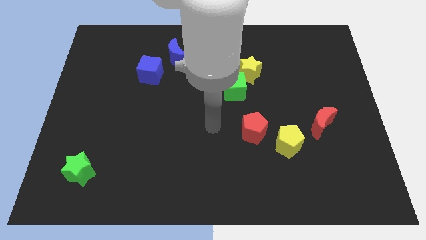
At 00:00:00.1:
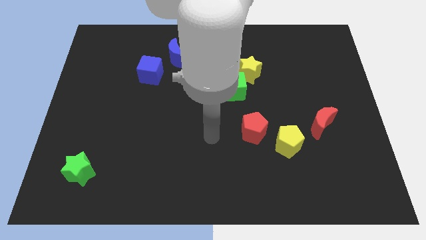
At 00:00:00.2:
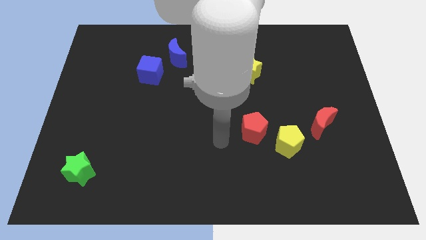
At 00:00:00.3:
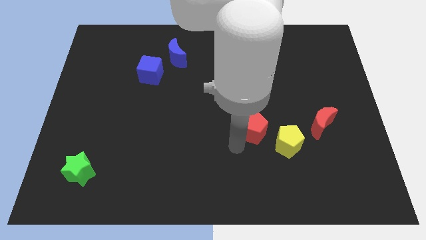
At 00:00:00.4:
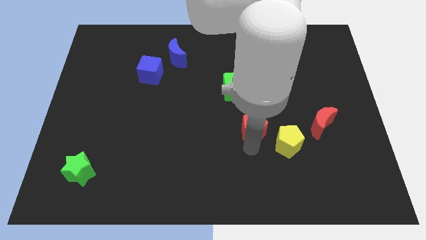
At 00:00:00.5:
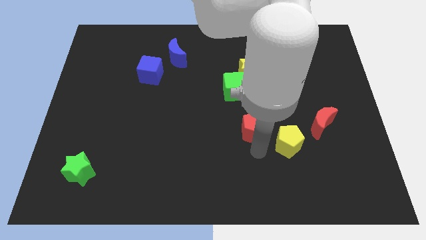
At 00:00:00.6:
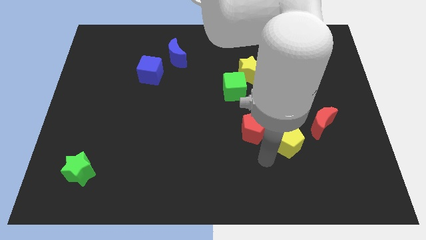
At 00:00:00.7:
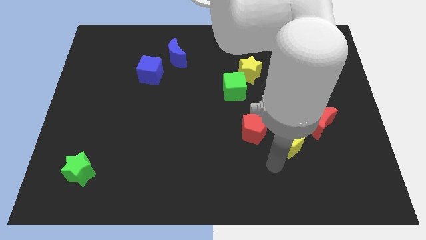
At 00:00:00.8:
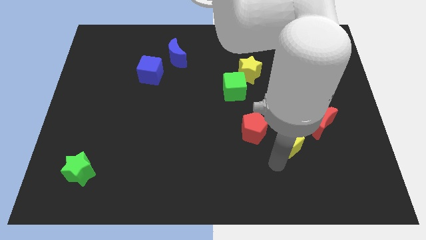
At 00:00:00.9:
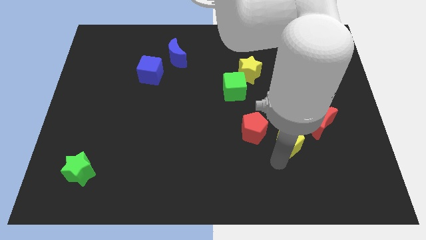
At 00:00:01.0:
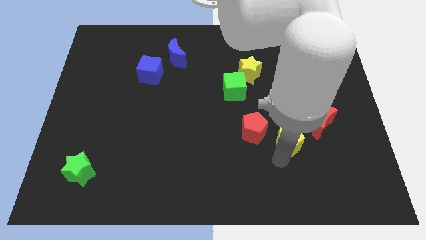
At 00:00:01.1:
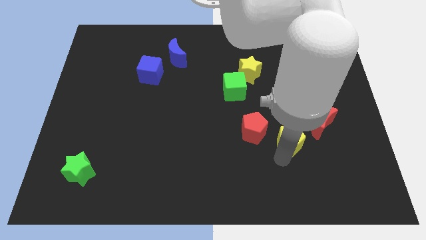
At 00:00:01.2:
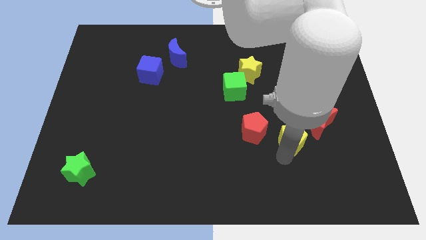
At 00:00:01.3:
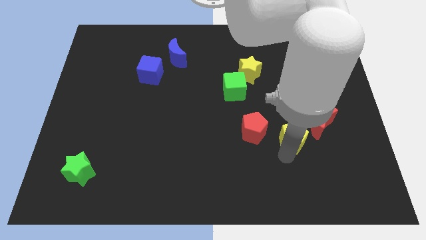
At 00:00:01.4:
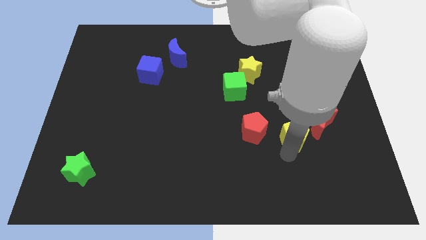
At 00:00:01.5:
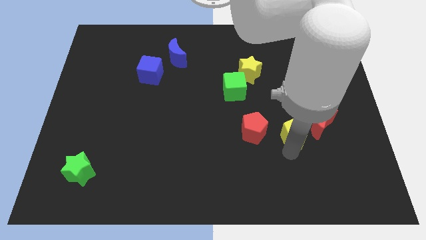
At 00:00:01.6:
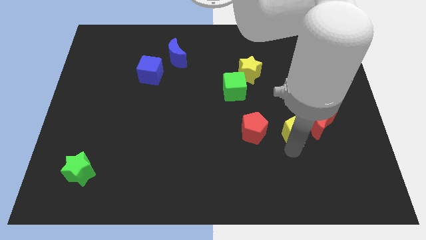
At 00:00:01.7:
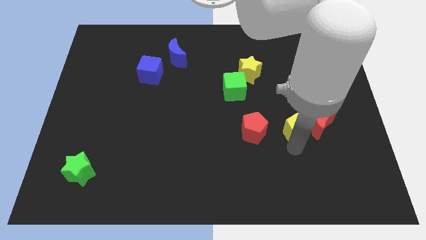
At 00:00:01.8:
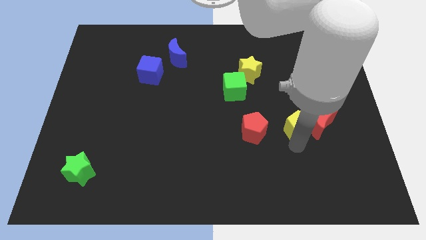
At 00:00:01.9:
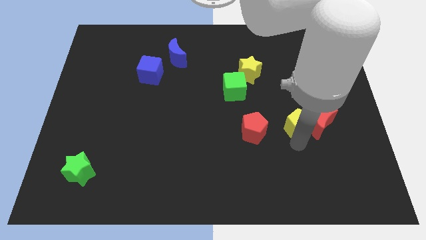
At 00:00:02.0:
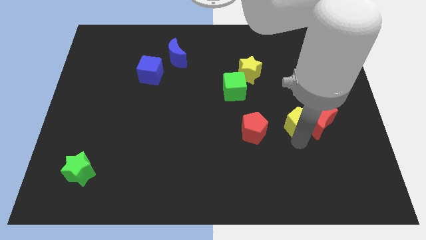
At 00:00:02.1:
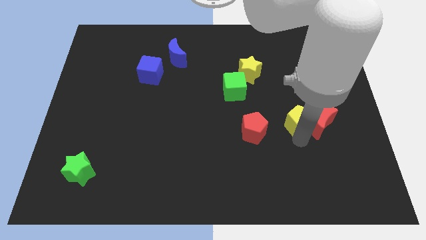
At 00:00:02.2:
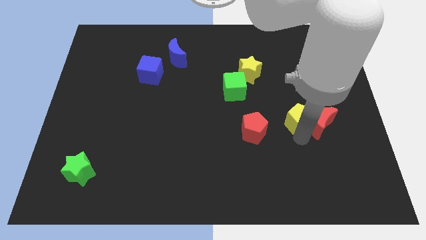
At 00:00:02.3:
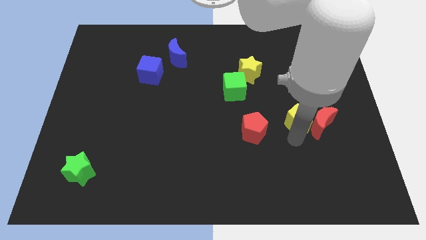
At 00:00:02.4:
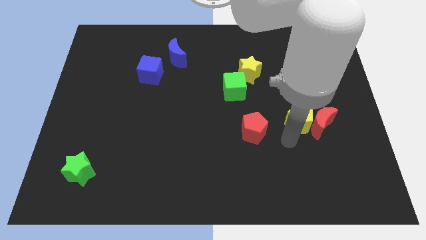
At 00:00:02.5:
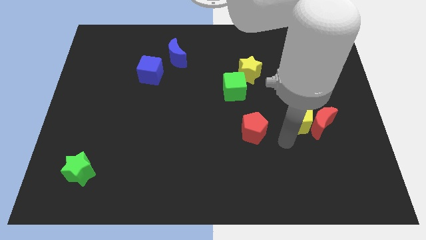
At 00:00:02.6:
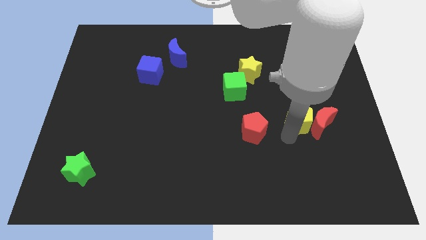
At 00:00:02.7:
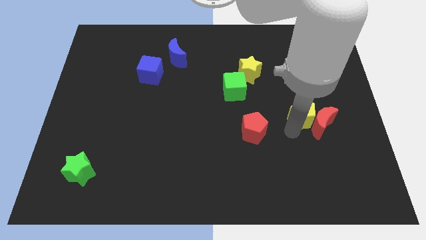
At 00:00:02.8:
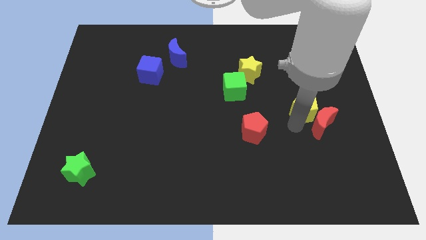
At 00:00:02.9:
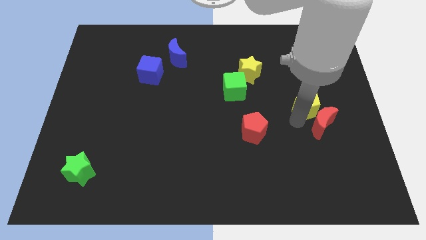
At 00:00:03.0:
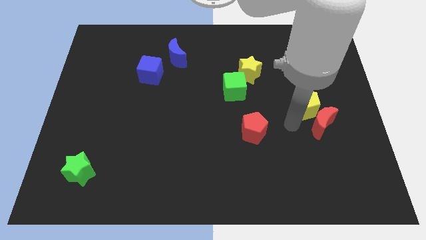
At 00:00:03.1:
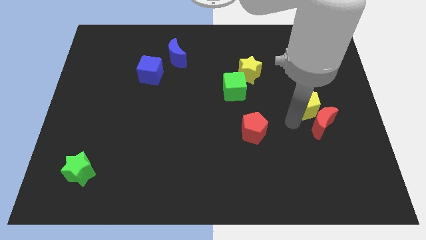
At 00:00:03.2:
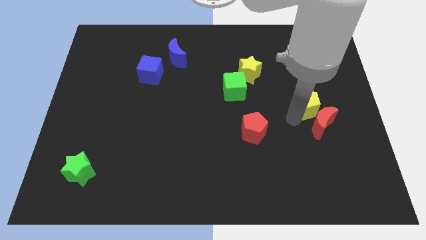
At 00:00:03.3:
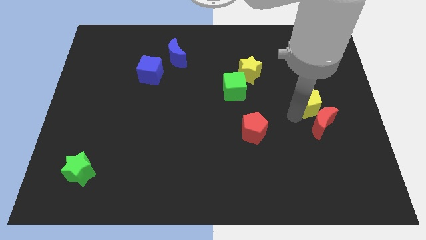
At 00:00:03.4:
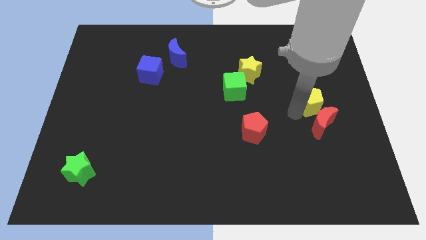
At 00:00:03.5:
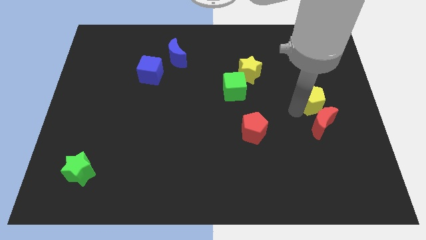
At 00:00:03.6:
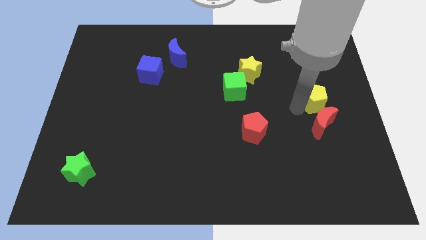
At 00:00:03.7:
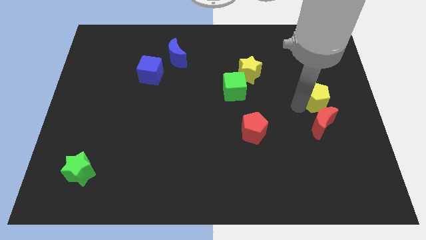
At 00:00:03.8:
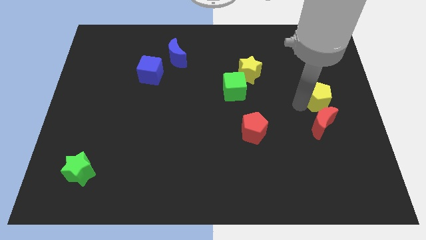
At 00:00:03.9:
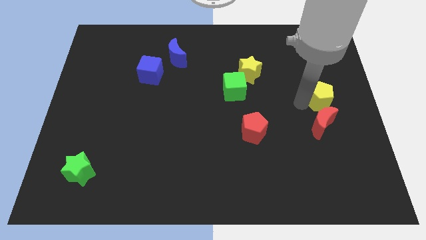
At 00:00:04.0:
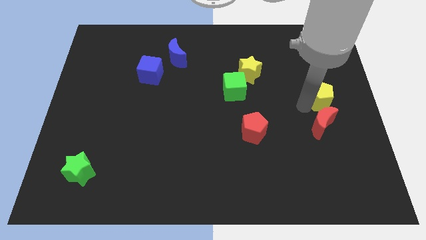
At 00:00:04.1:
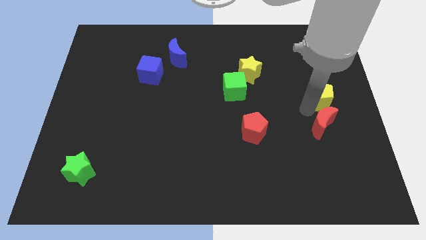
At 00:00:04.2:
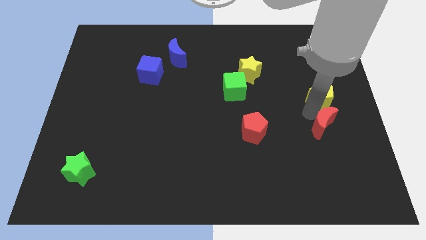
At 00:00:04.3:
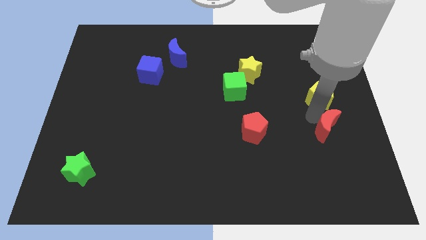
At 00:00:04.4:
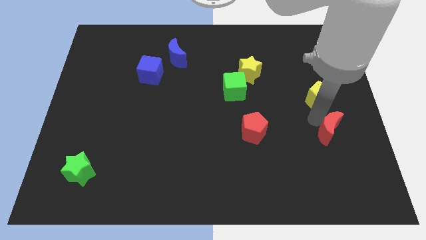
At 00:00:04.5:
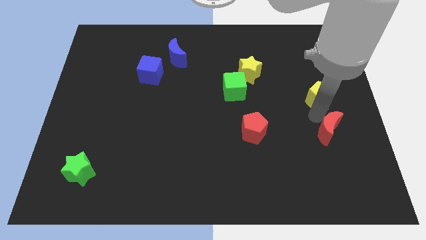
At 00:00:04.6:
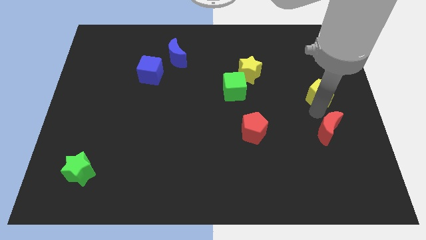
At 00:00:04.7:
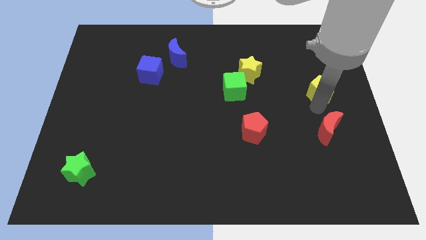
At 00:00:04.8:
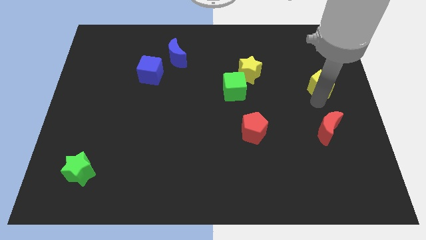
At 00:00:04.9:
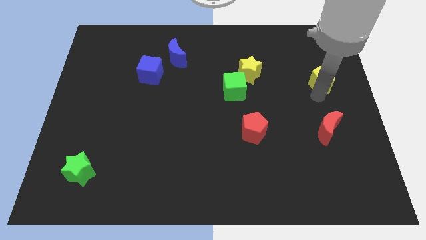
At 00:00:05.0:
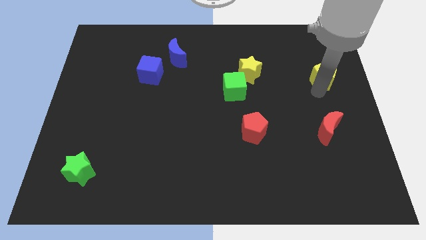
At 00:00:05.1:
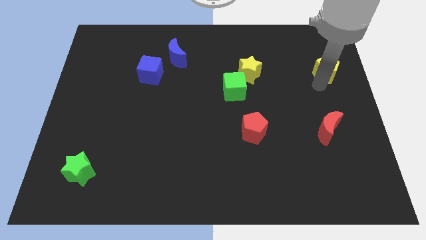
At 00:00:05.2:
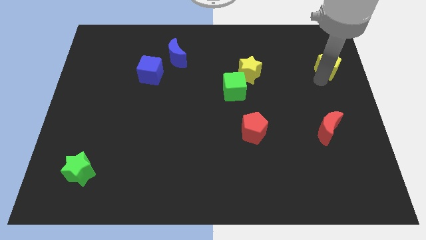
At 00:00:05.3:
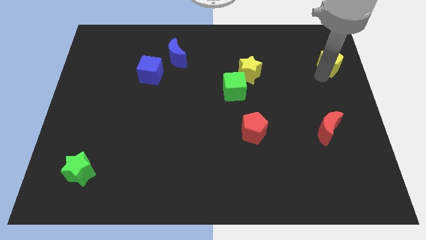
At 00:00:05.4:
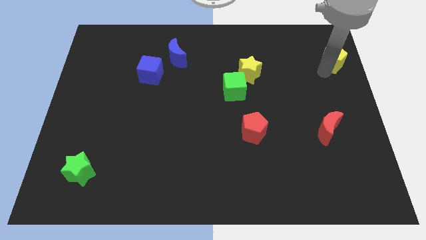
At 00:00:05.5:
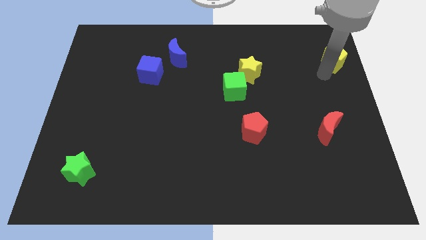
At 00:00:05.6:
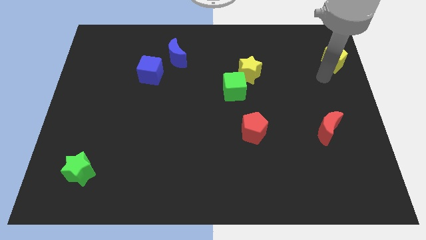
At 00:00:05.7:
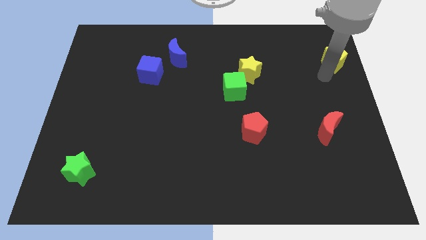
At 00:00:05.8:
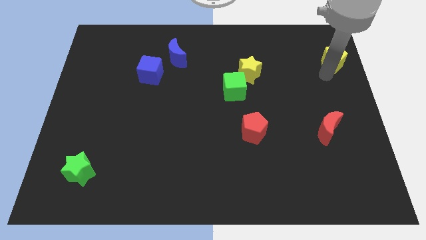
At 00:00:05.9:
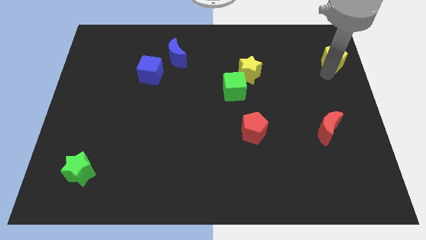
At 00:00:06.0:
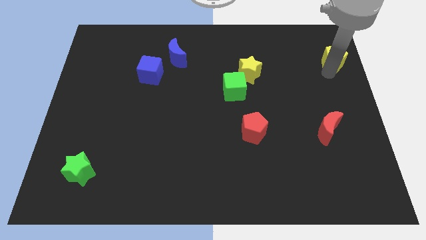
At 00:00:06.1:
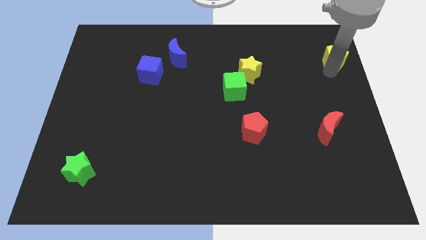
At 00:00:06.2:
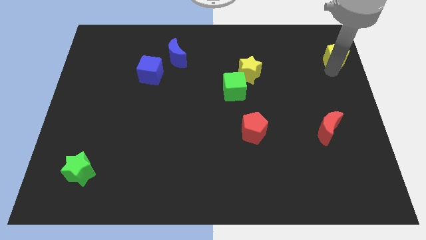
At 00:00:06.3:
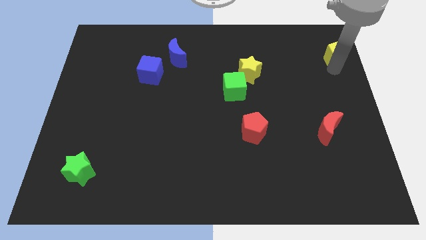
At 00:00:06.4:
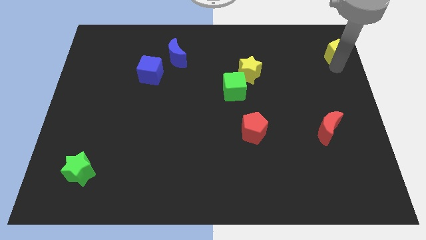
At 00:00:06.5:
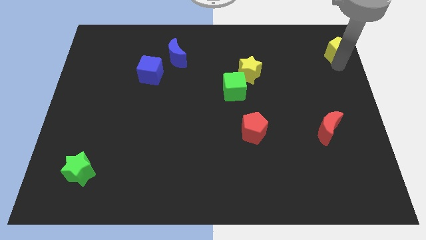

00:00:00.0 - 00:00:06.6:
push the yellow pentagon to the top right
